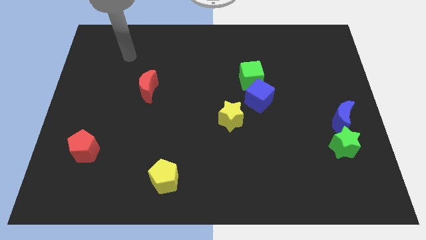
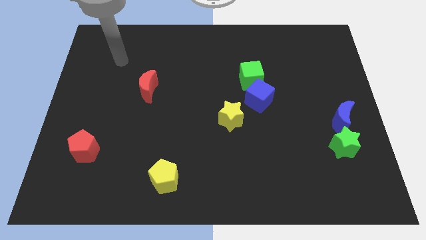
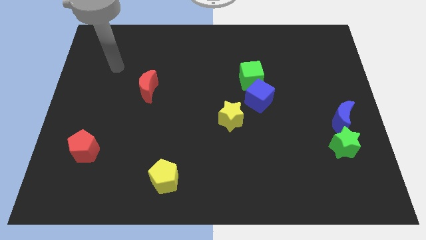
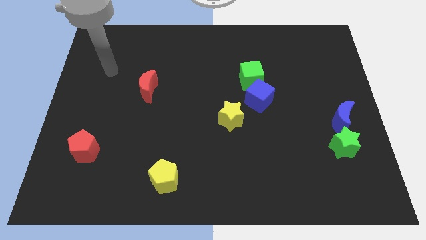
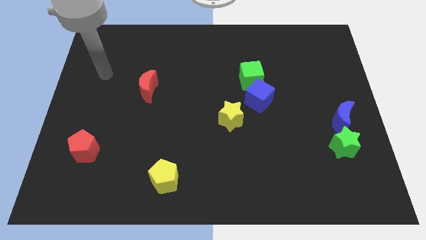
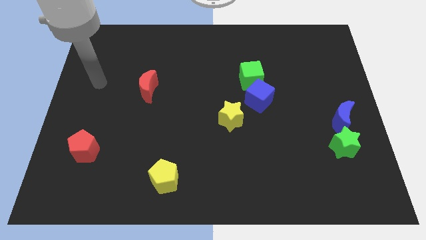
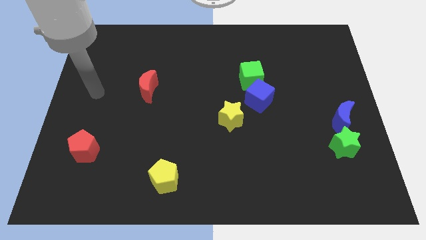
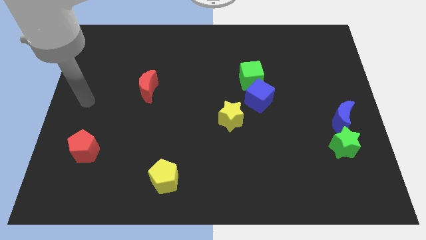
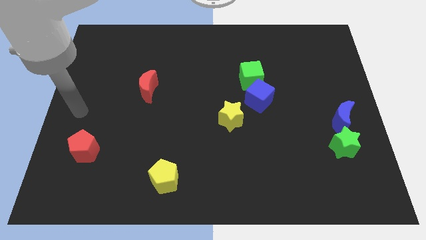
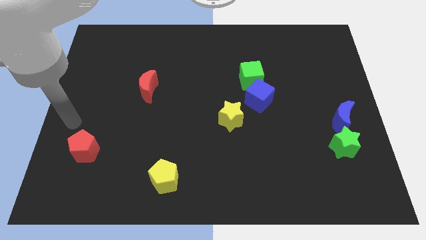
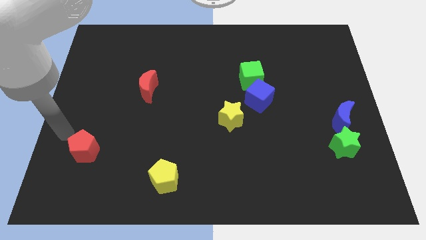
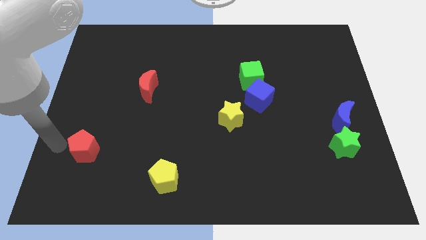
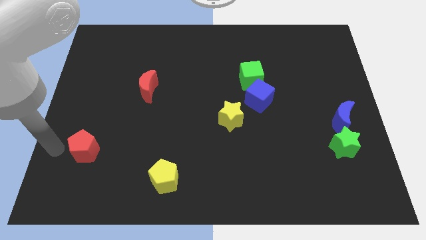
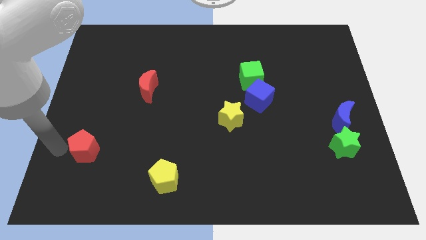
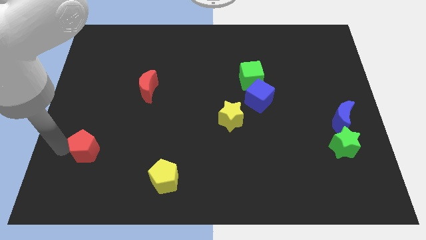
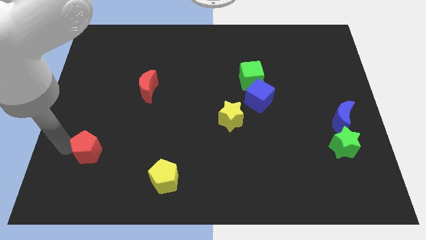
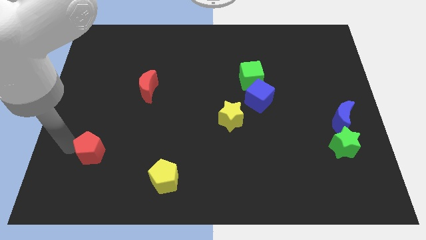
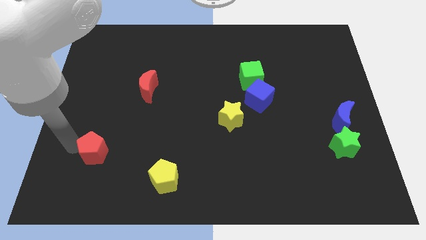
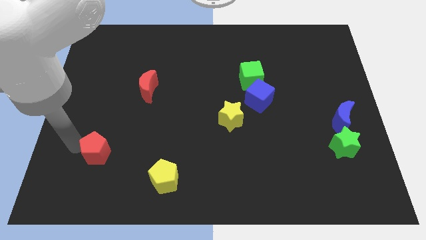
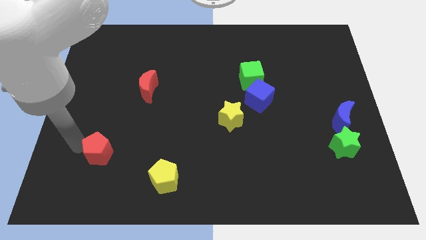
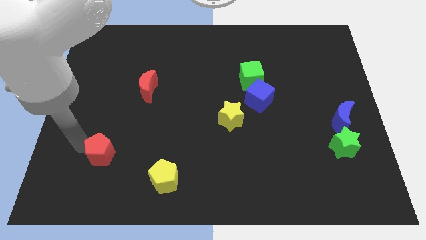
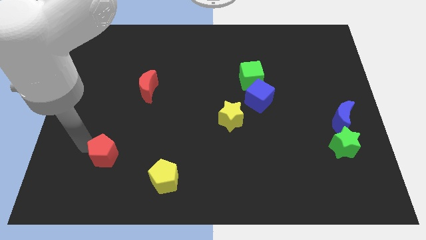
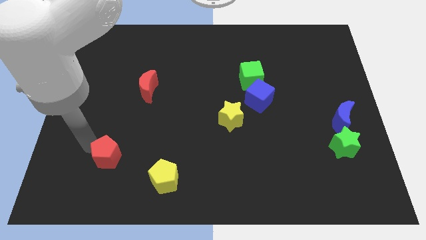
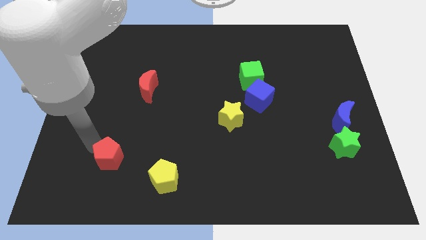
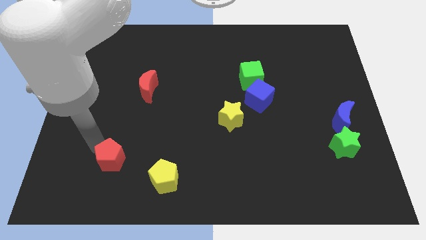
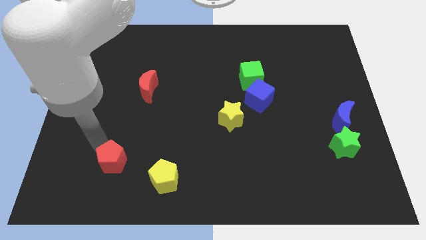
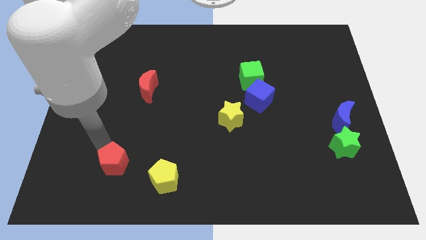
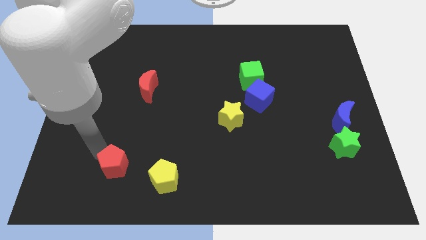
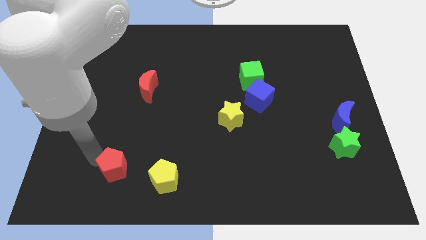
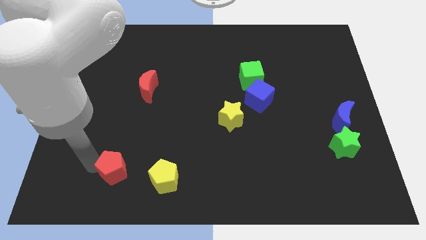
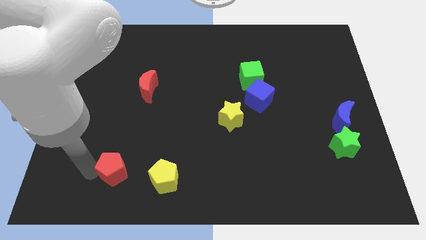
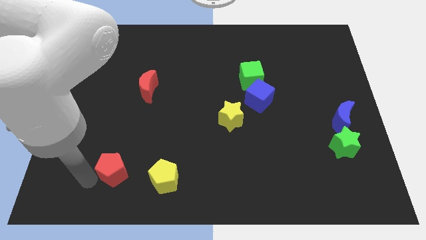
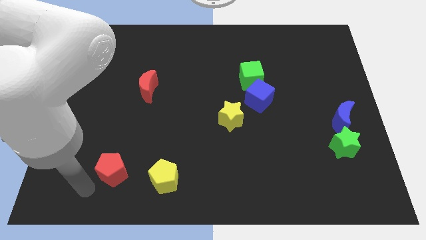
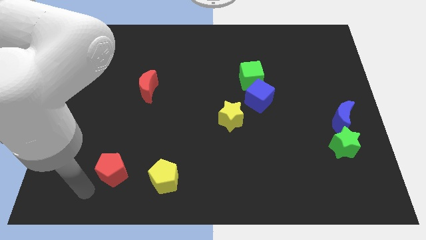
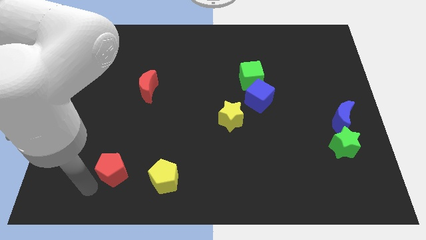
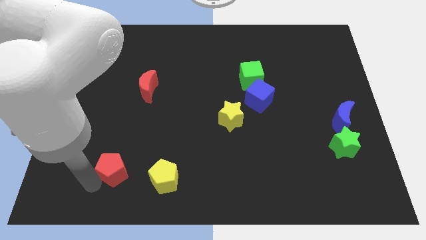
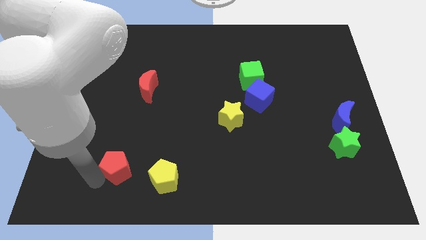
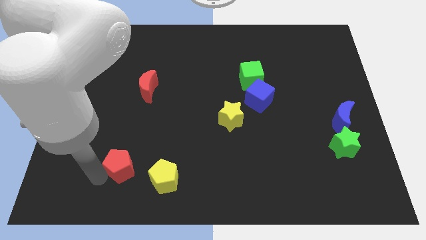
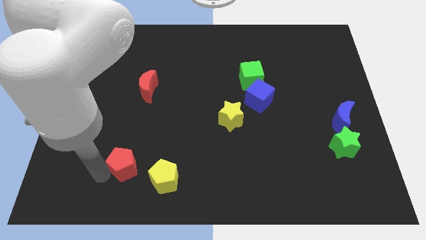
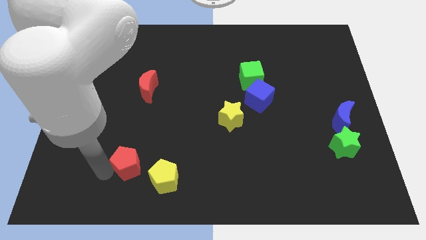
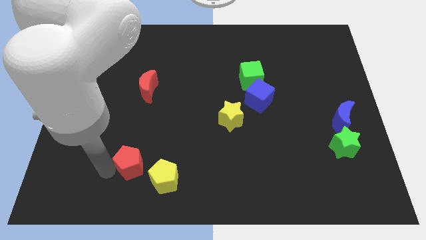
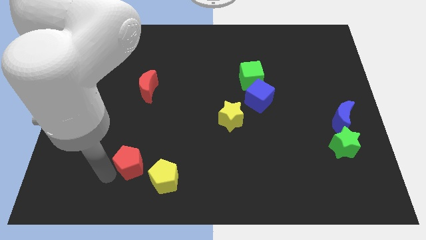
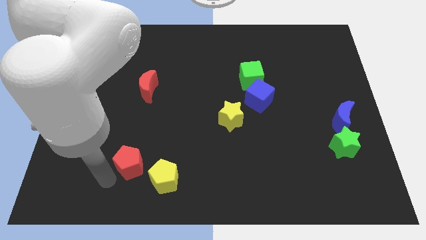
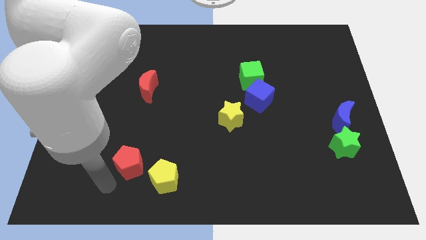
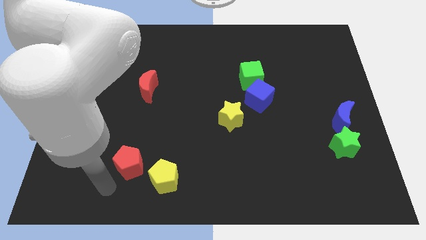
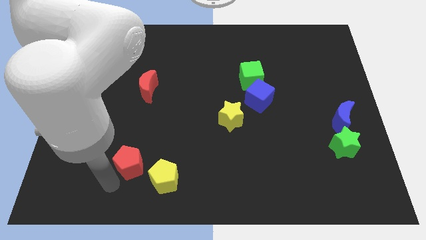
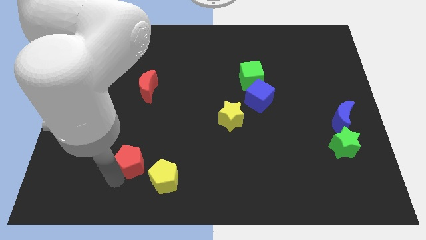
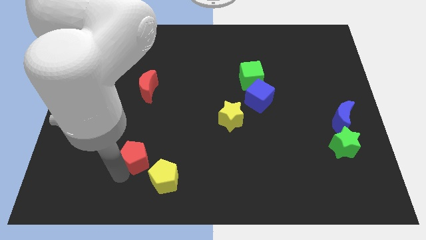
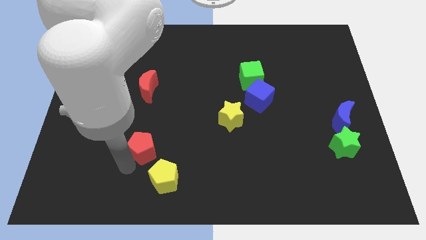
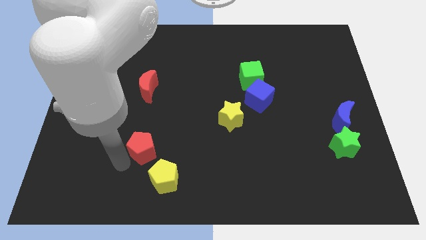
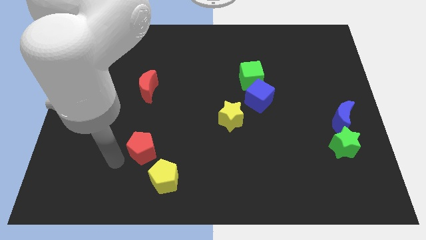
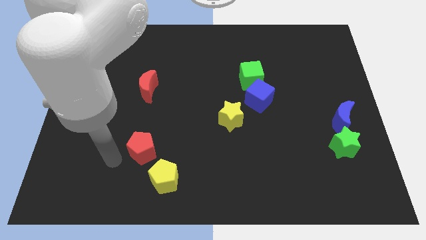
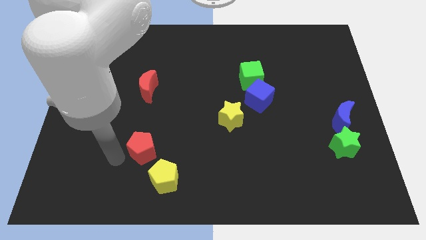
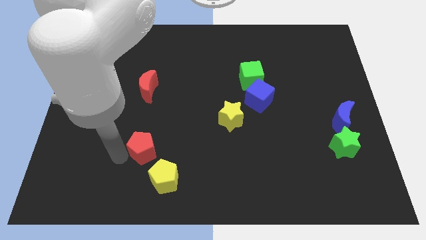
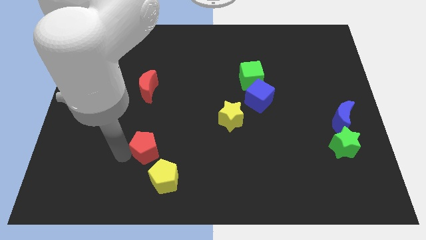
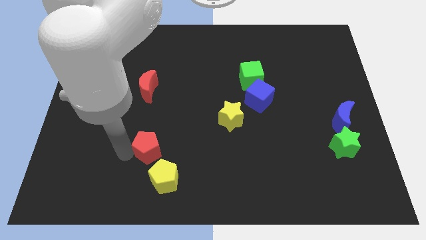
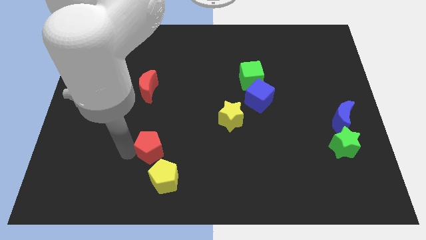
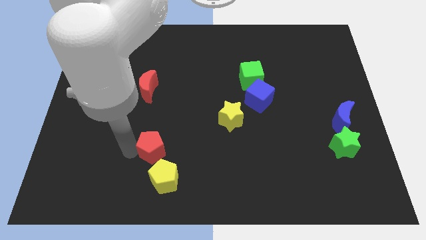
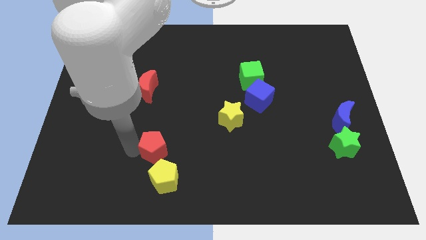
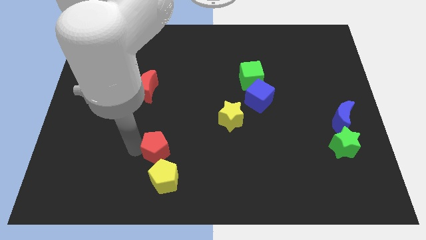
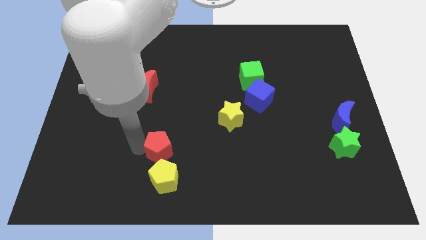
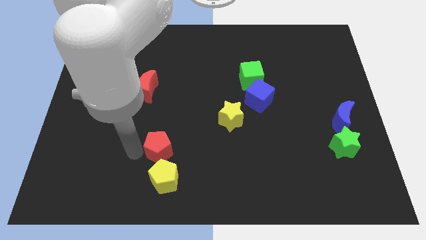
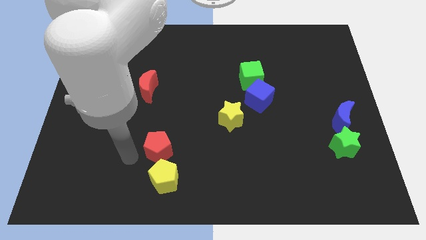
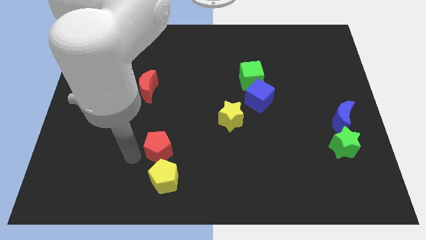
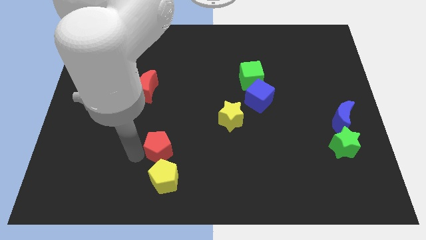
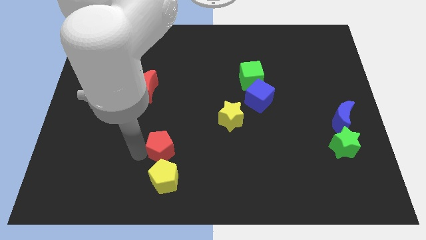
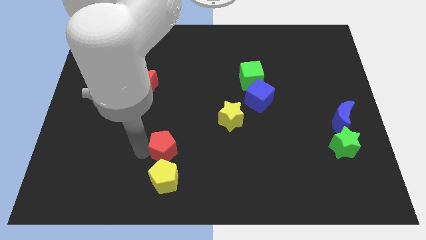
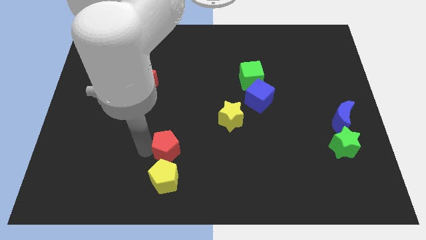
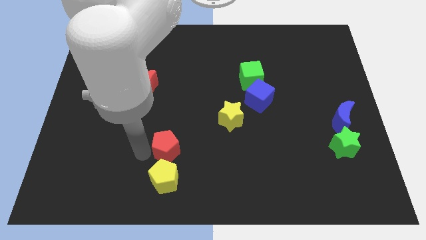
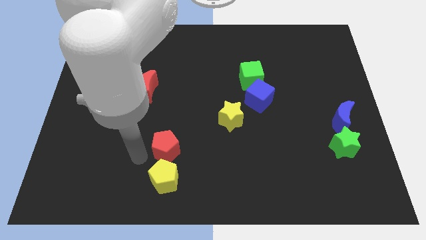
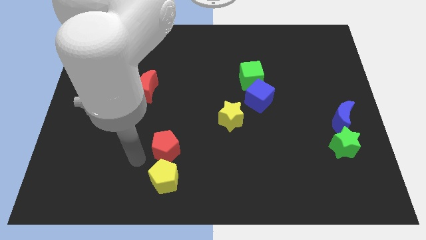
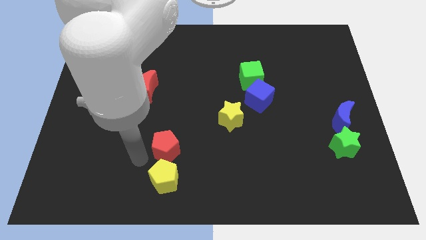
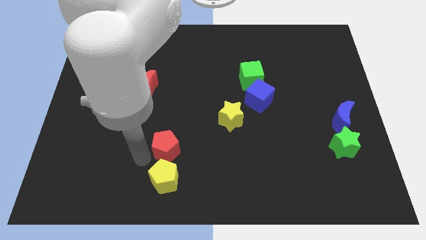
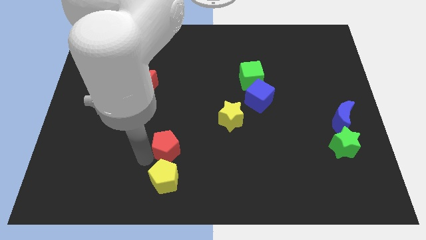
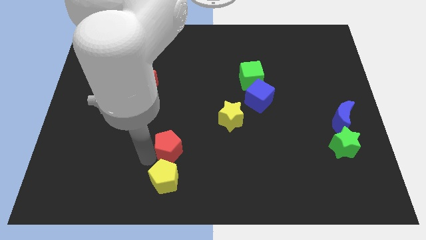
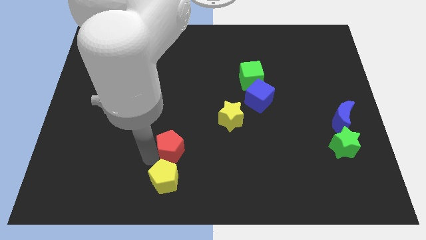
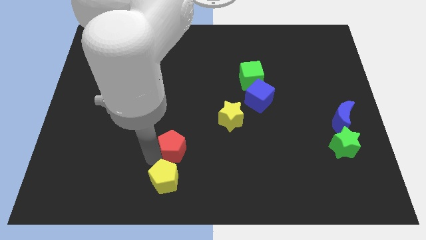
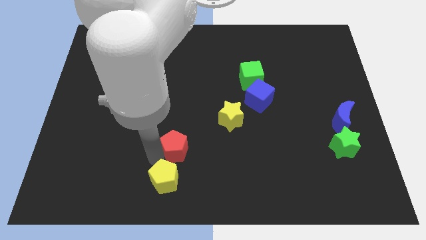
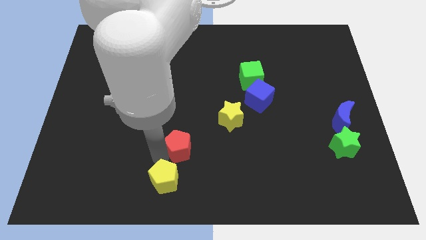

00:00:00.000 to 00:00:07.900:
push the red pentagon to the right

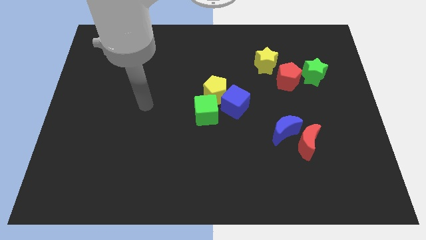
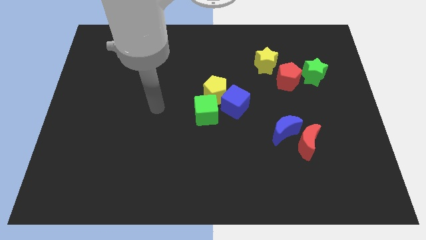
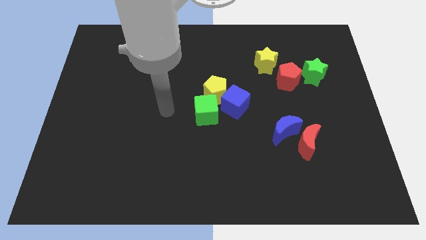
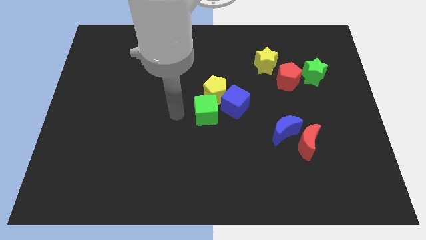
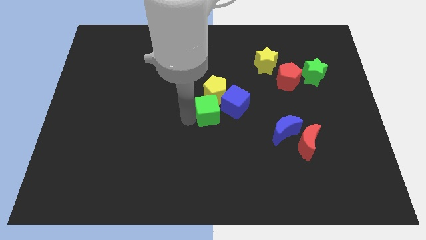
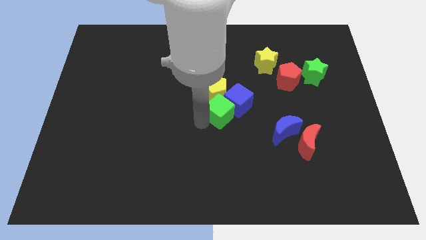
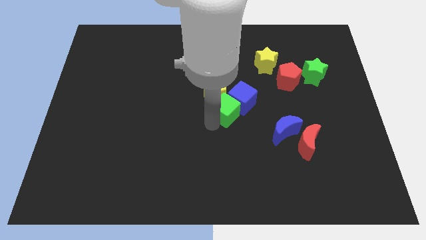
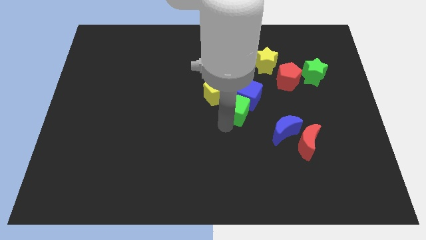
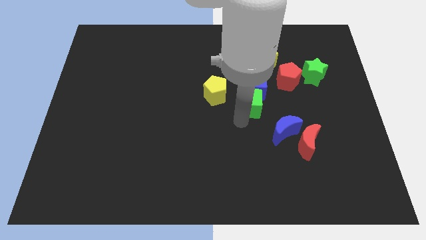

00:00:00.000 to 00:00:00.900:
move the blue cube diagonally upwards and to the right a little
